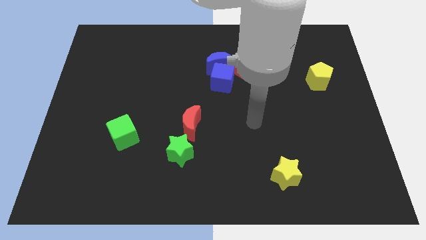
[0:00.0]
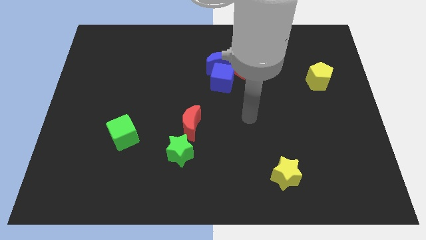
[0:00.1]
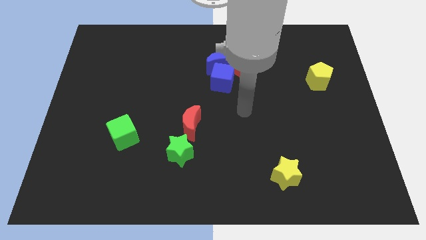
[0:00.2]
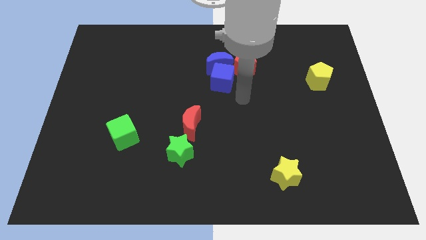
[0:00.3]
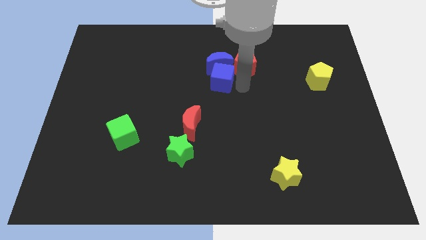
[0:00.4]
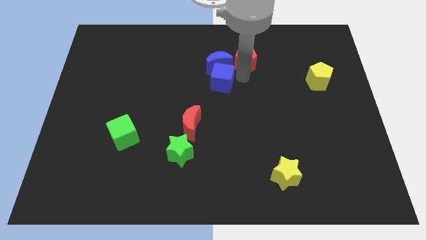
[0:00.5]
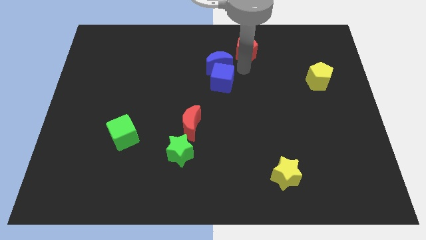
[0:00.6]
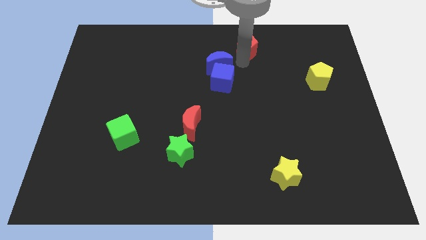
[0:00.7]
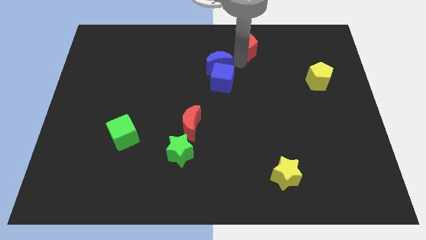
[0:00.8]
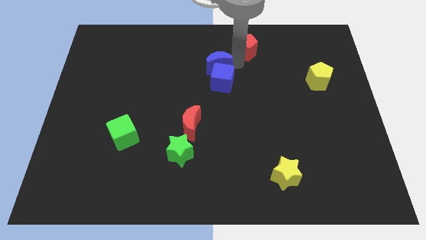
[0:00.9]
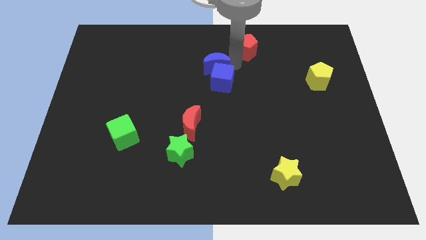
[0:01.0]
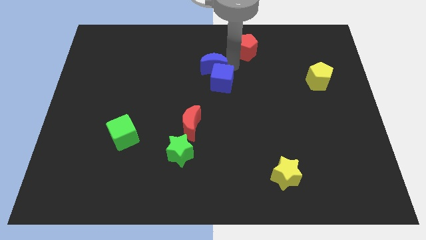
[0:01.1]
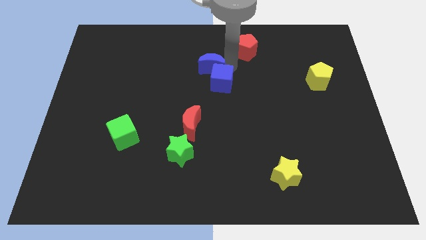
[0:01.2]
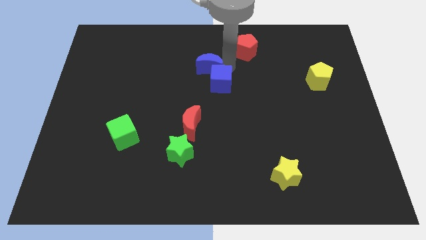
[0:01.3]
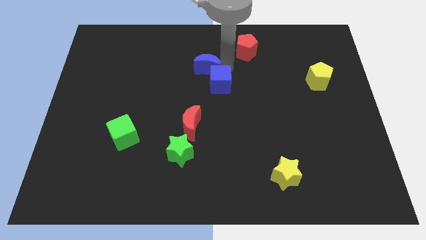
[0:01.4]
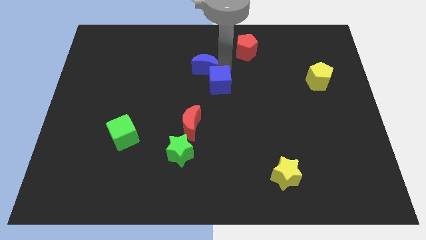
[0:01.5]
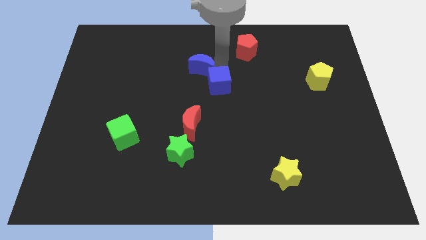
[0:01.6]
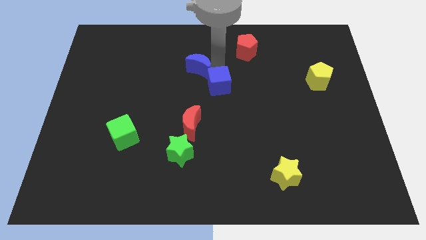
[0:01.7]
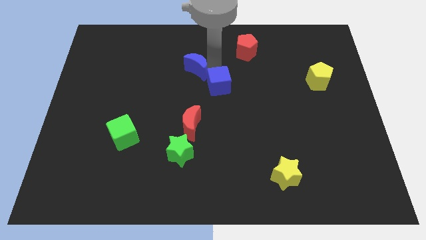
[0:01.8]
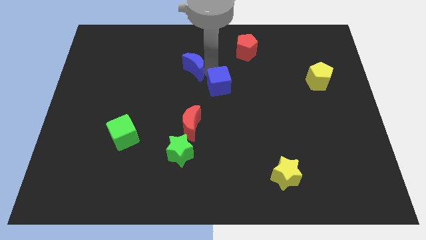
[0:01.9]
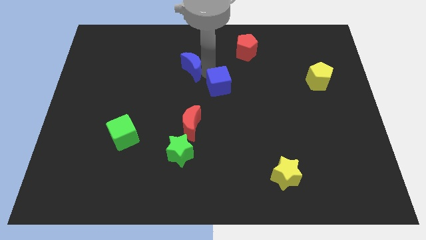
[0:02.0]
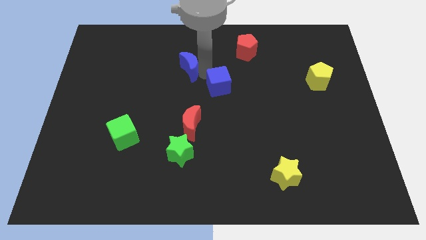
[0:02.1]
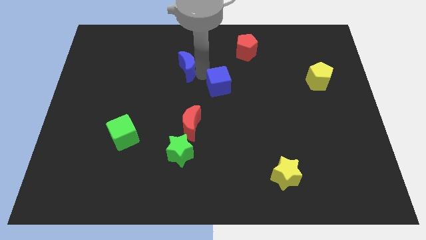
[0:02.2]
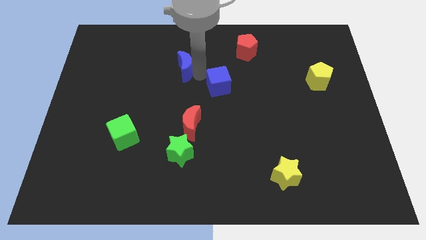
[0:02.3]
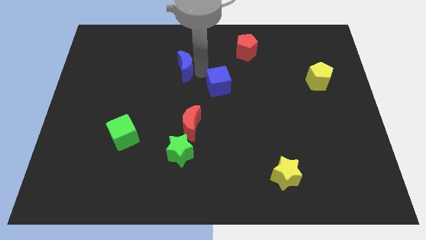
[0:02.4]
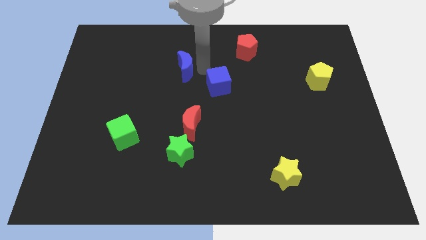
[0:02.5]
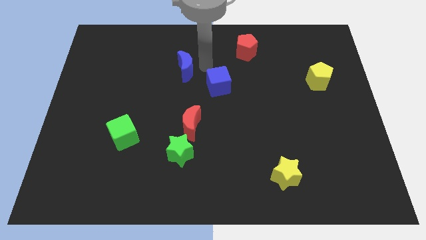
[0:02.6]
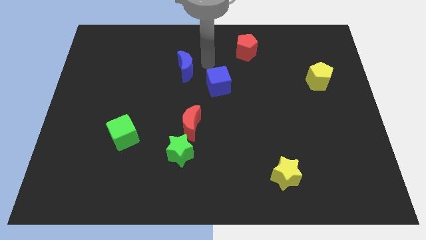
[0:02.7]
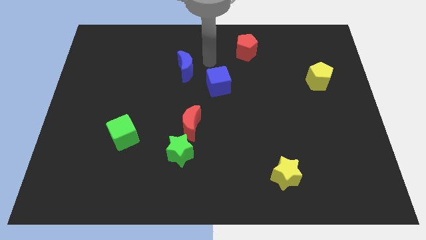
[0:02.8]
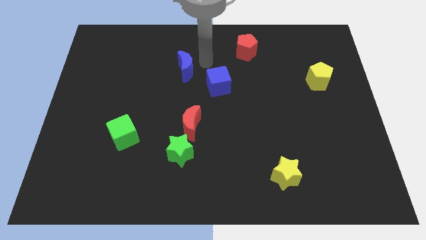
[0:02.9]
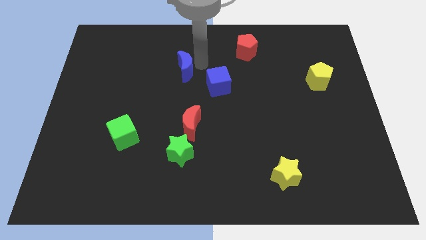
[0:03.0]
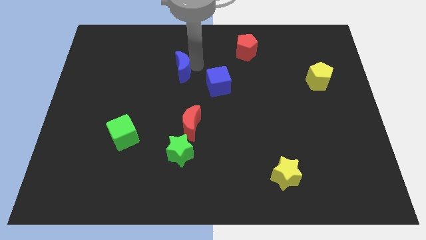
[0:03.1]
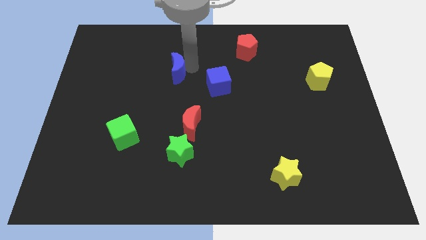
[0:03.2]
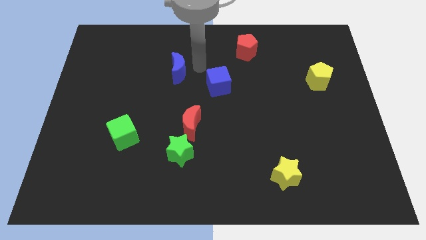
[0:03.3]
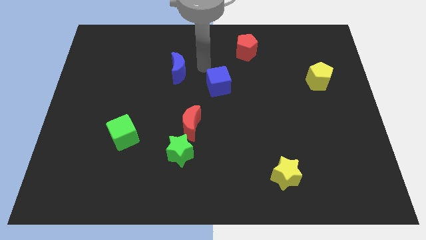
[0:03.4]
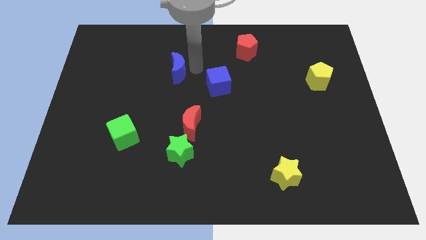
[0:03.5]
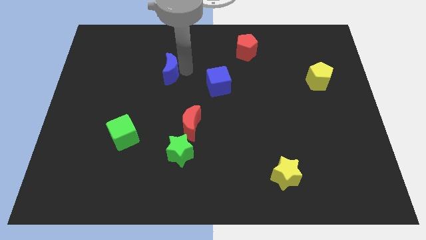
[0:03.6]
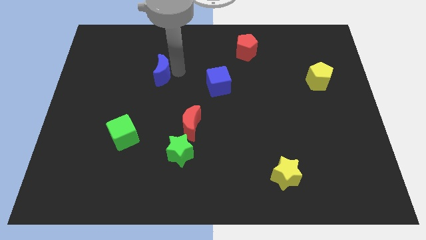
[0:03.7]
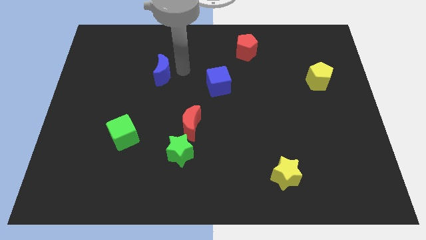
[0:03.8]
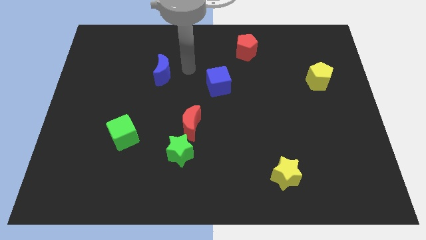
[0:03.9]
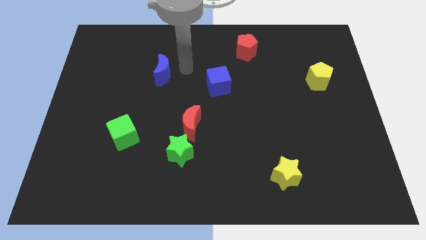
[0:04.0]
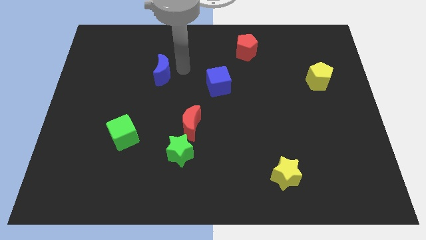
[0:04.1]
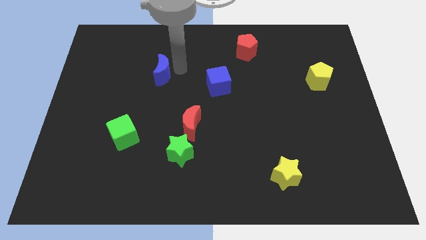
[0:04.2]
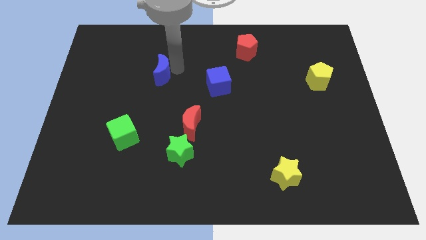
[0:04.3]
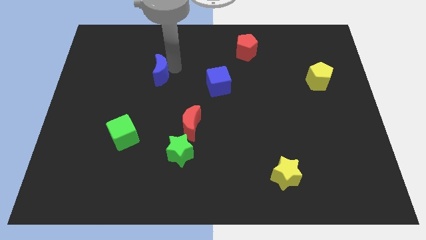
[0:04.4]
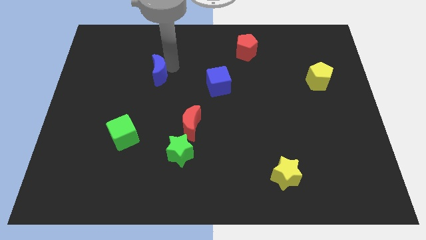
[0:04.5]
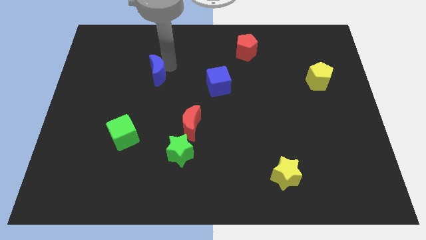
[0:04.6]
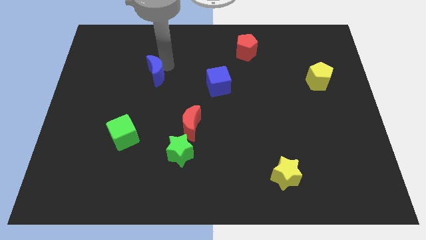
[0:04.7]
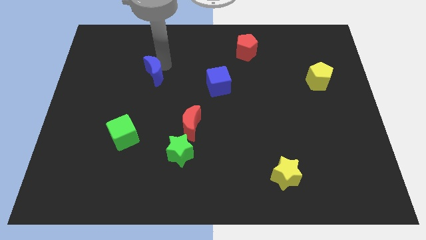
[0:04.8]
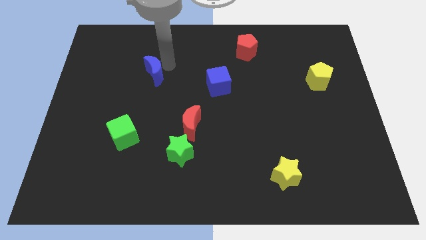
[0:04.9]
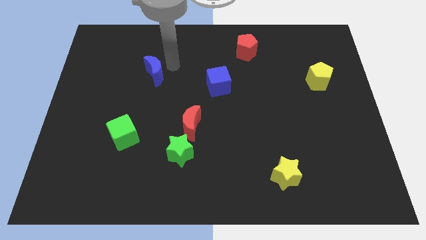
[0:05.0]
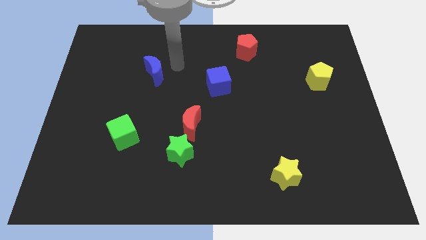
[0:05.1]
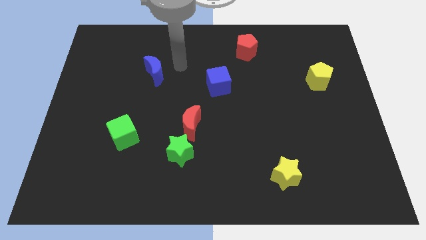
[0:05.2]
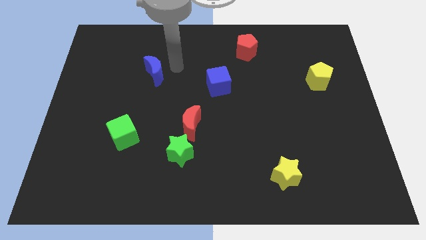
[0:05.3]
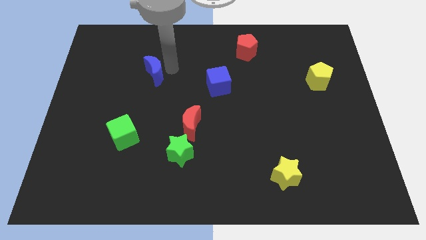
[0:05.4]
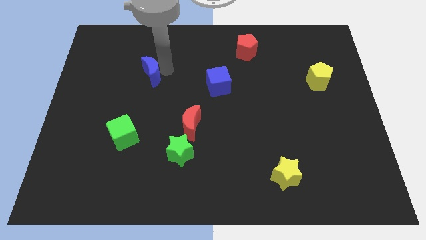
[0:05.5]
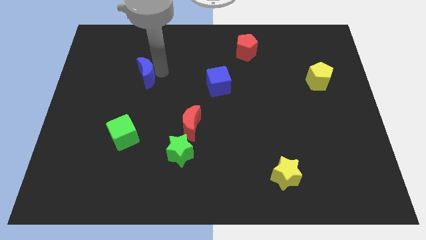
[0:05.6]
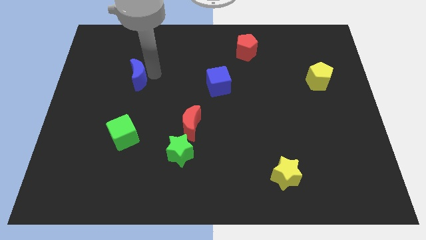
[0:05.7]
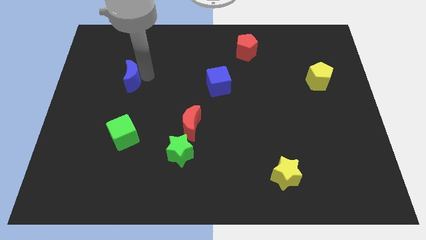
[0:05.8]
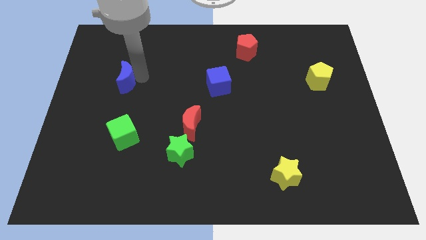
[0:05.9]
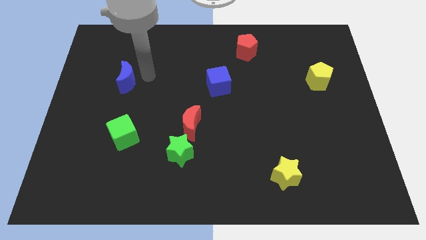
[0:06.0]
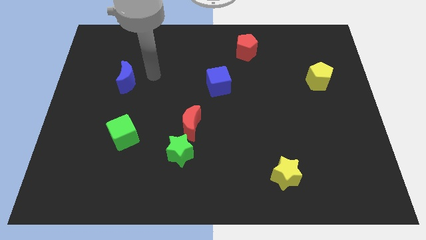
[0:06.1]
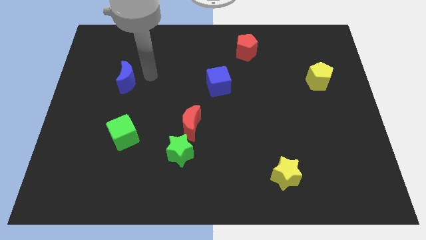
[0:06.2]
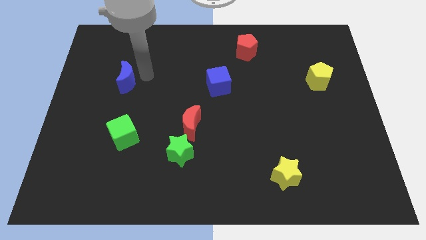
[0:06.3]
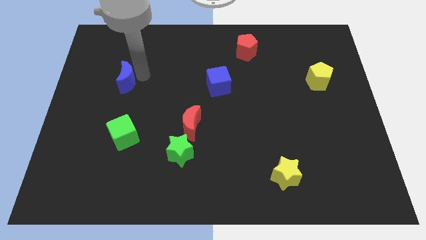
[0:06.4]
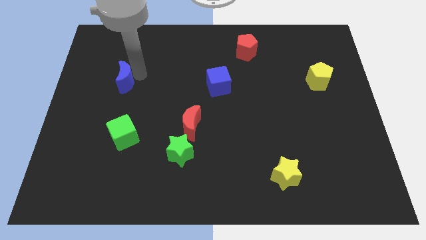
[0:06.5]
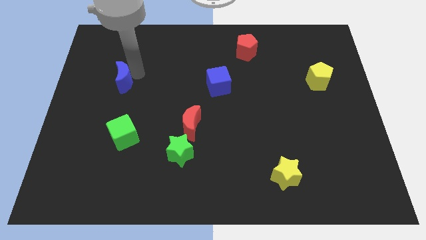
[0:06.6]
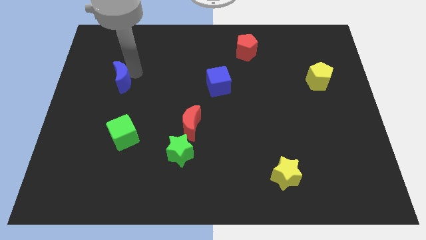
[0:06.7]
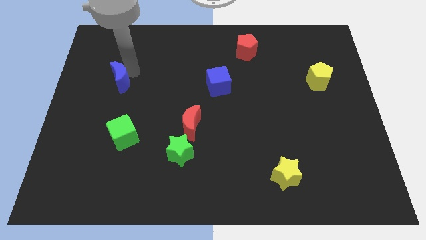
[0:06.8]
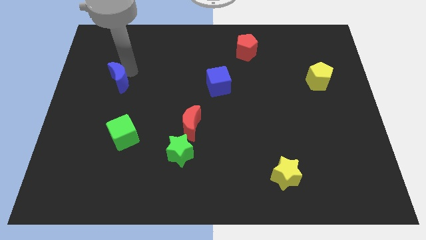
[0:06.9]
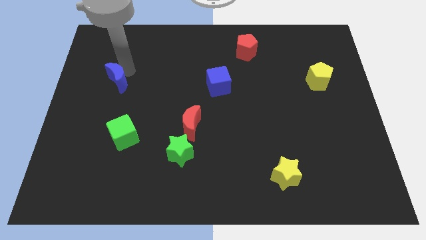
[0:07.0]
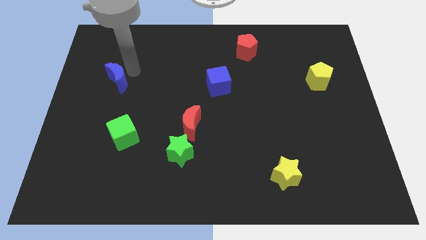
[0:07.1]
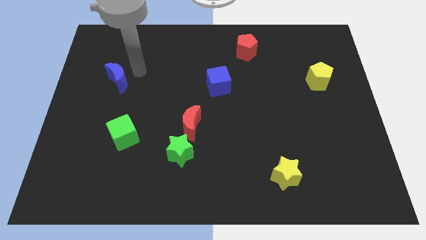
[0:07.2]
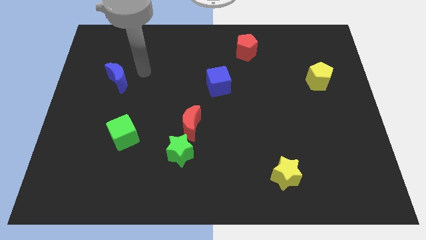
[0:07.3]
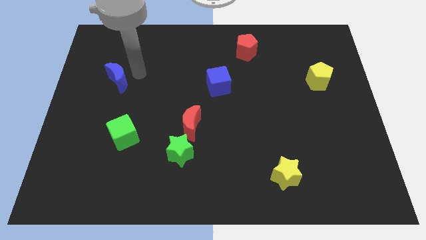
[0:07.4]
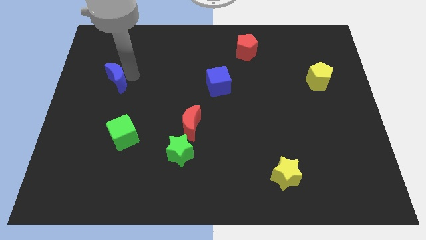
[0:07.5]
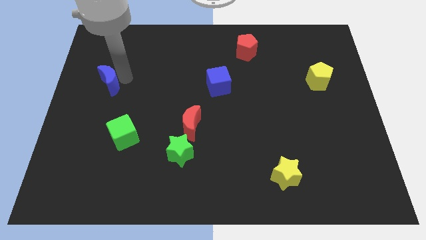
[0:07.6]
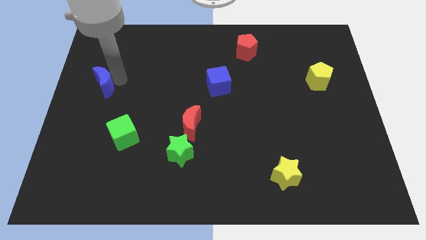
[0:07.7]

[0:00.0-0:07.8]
push the blue moon to the left side of the board
